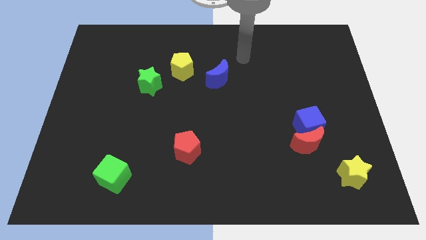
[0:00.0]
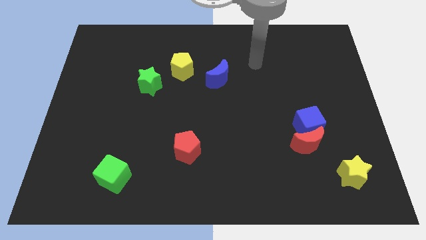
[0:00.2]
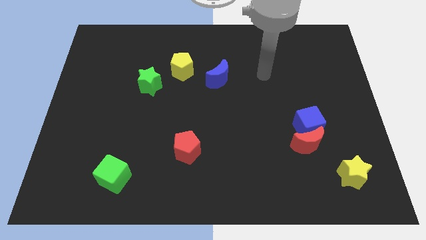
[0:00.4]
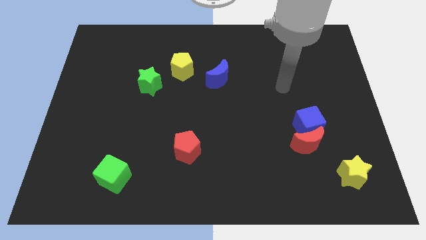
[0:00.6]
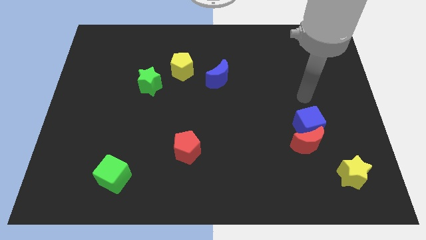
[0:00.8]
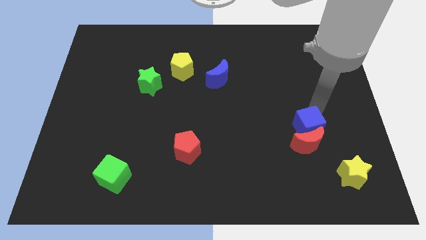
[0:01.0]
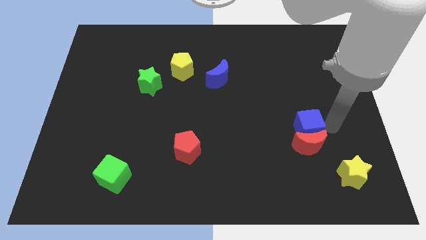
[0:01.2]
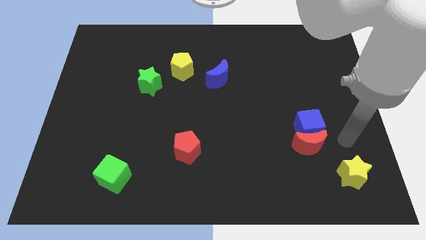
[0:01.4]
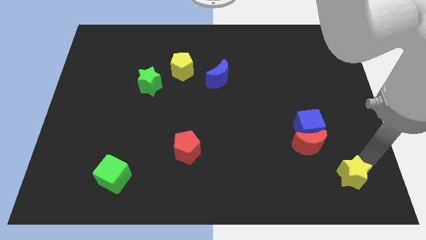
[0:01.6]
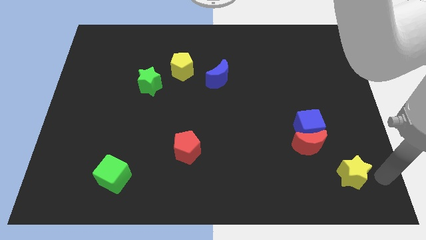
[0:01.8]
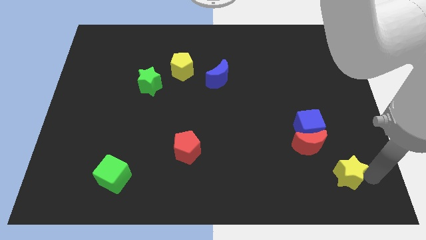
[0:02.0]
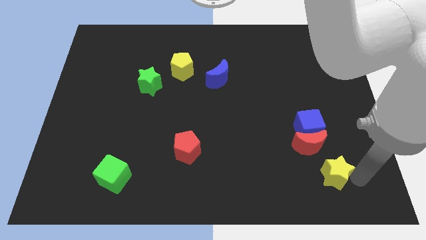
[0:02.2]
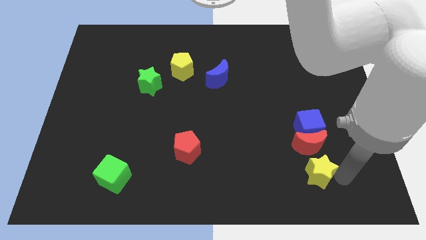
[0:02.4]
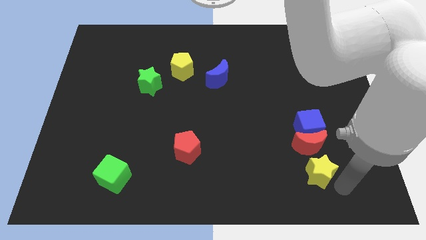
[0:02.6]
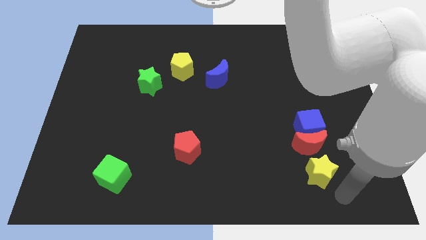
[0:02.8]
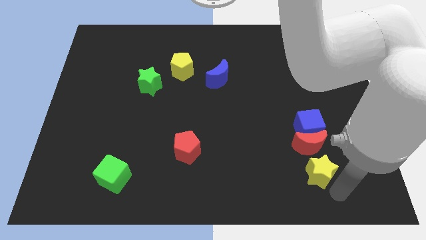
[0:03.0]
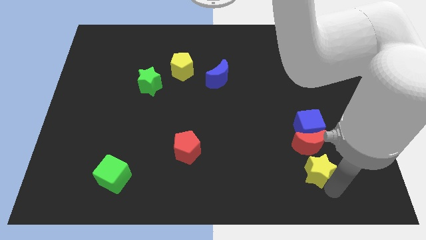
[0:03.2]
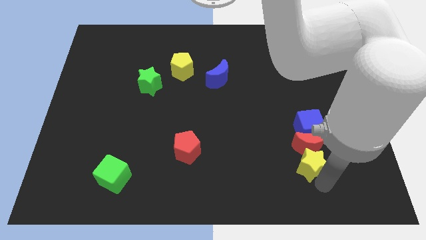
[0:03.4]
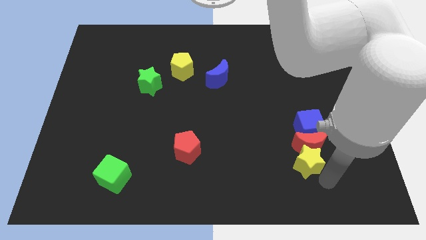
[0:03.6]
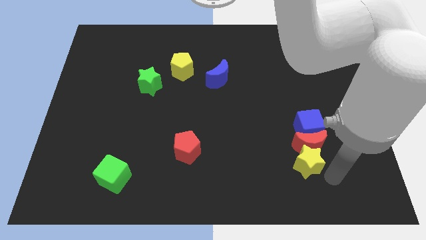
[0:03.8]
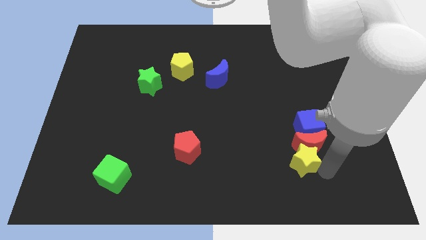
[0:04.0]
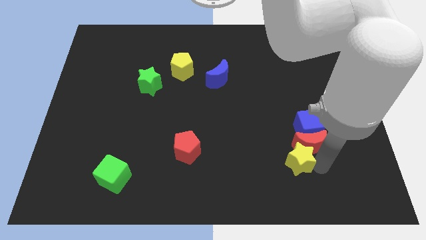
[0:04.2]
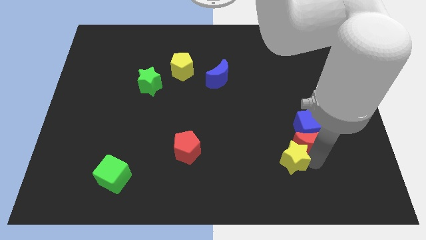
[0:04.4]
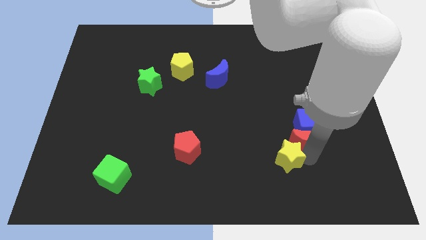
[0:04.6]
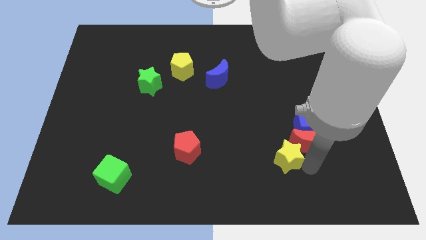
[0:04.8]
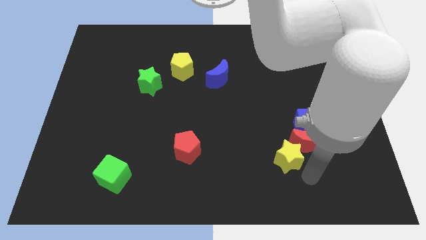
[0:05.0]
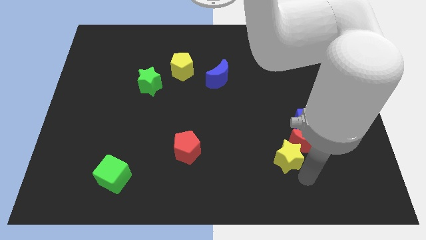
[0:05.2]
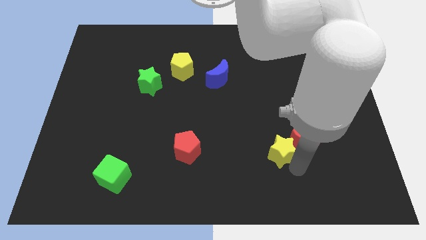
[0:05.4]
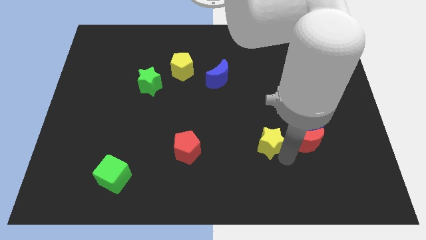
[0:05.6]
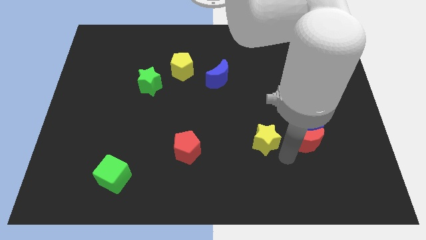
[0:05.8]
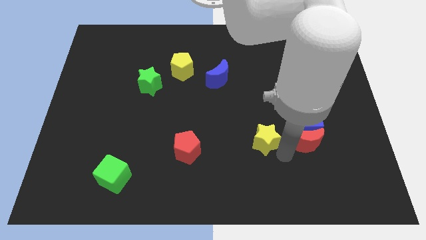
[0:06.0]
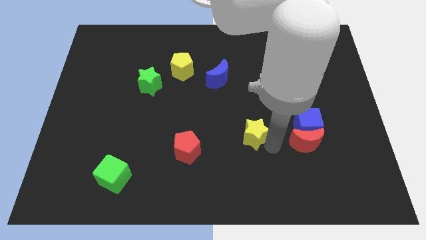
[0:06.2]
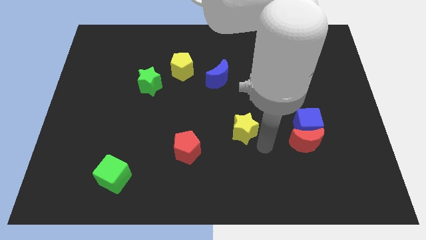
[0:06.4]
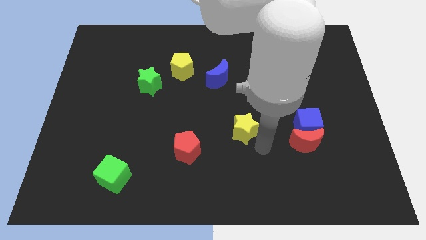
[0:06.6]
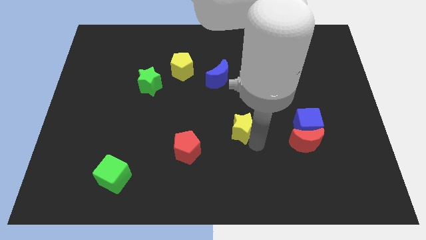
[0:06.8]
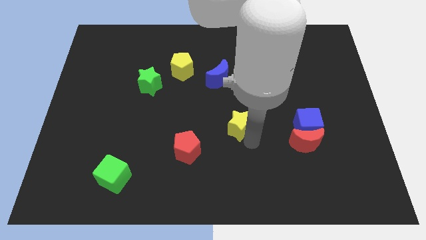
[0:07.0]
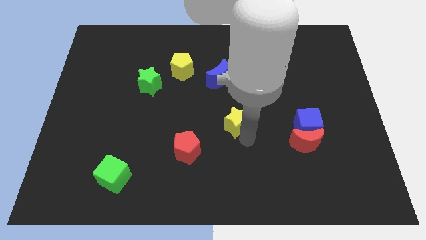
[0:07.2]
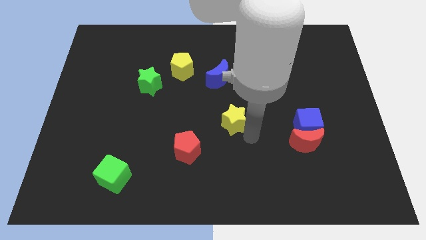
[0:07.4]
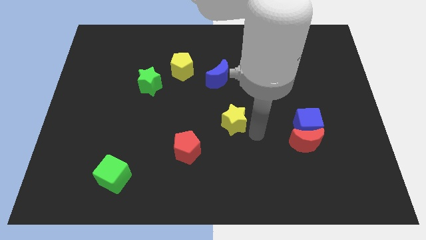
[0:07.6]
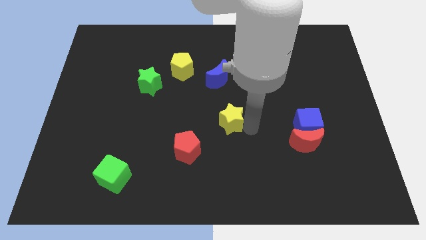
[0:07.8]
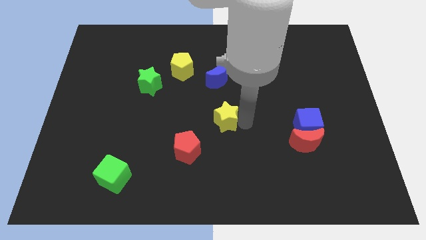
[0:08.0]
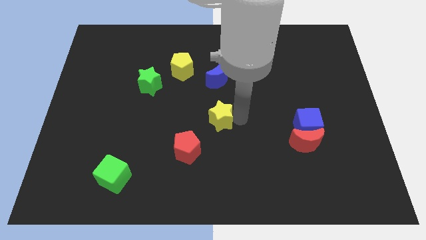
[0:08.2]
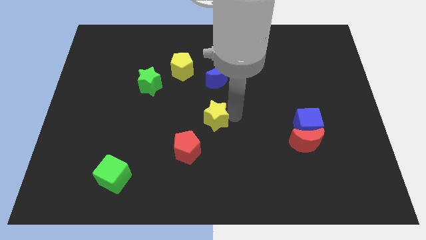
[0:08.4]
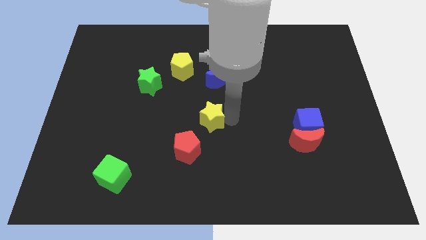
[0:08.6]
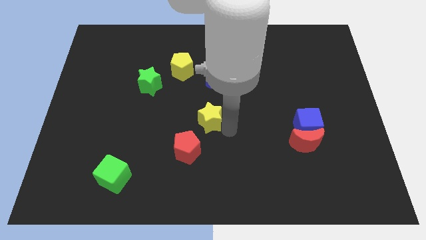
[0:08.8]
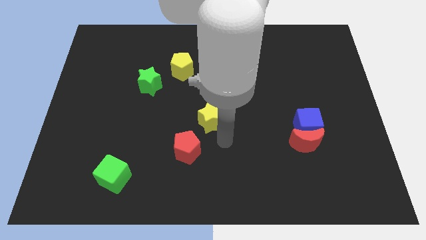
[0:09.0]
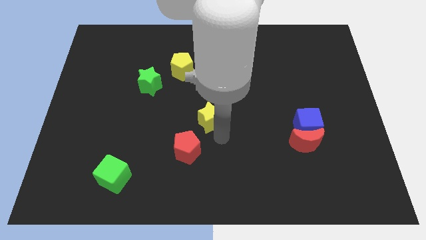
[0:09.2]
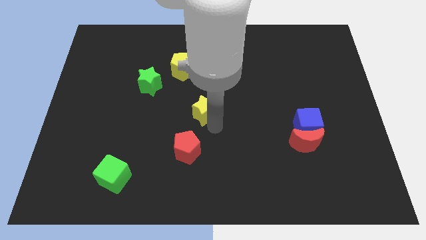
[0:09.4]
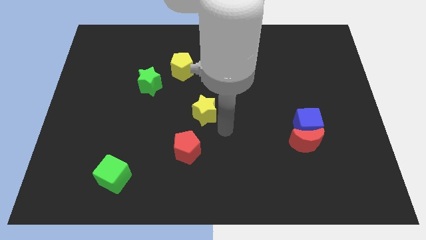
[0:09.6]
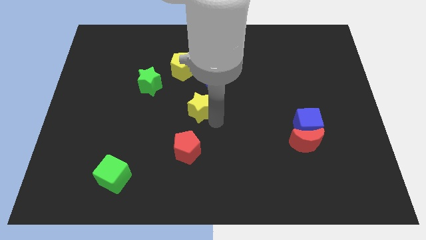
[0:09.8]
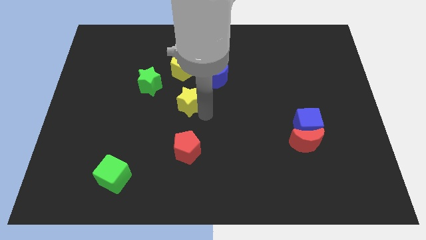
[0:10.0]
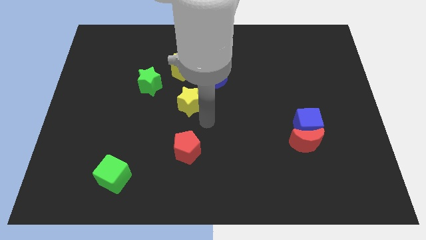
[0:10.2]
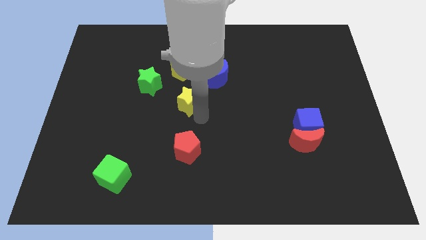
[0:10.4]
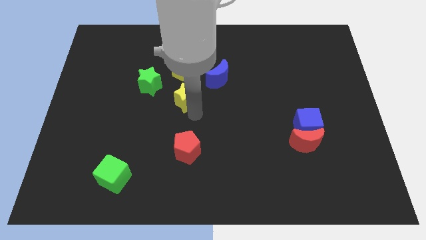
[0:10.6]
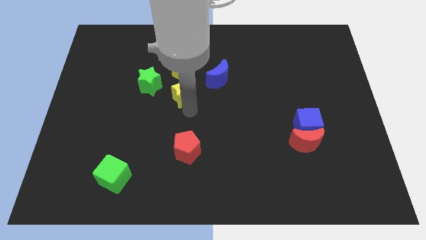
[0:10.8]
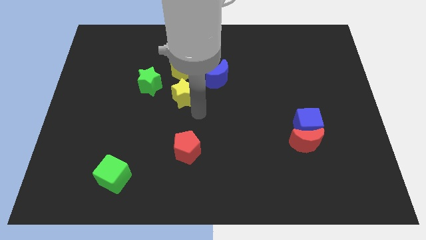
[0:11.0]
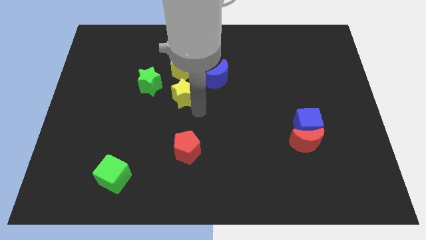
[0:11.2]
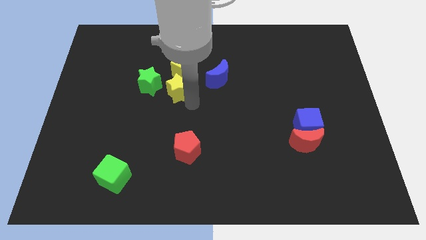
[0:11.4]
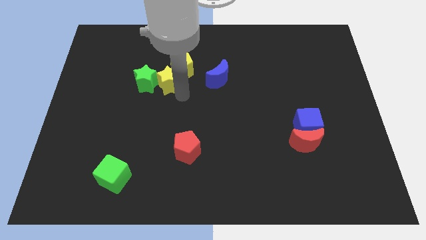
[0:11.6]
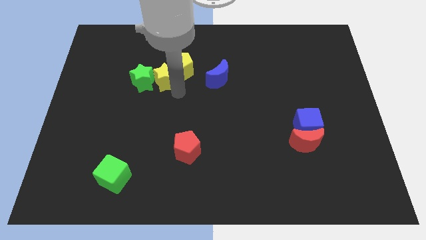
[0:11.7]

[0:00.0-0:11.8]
slide the yellow star to the left side of the yellow pentagon

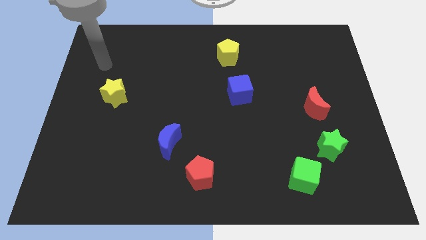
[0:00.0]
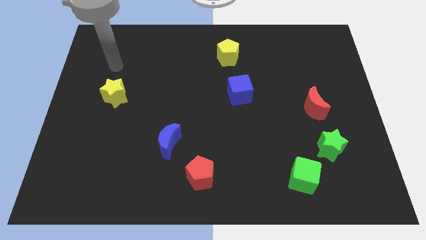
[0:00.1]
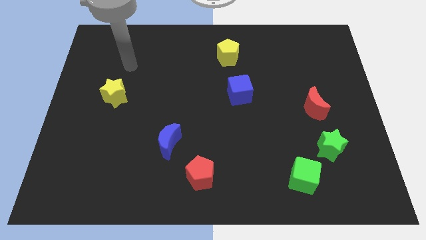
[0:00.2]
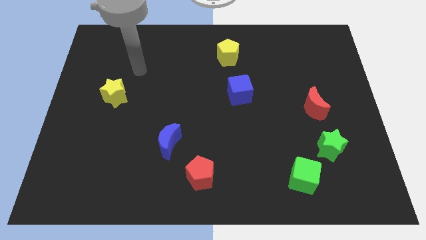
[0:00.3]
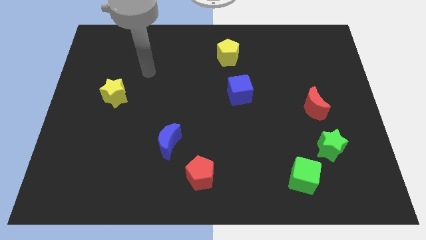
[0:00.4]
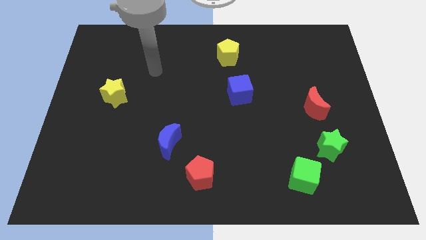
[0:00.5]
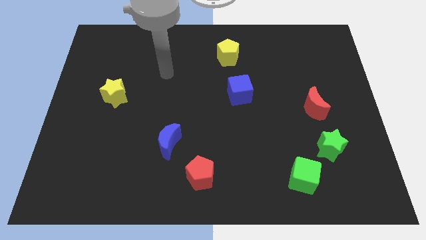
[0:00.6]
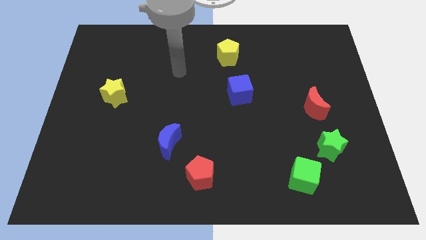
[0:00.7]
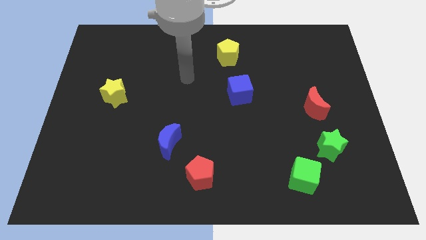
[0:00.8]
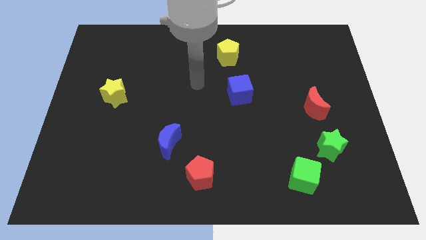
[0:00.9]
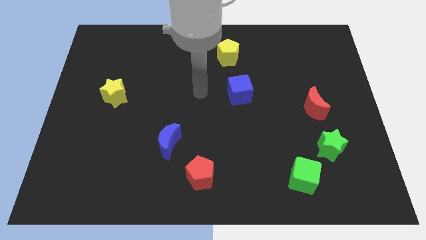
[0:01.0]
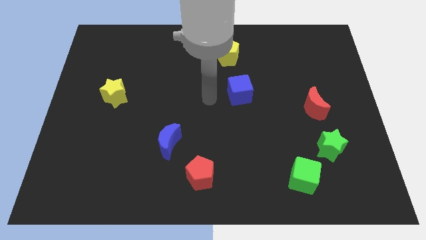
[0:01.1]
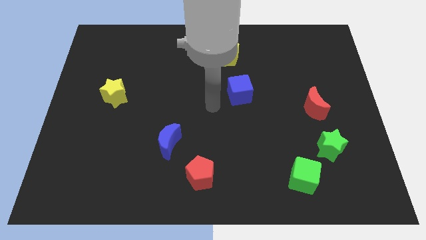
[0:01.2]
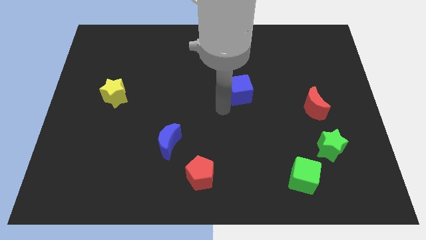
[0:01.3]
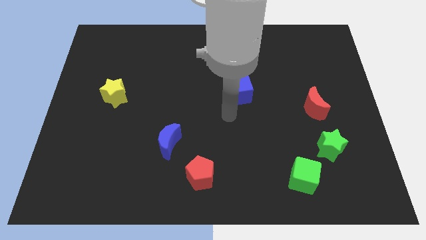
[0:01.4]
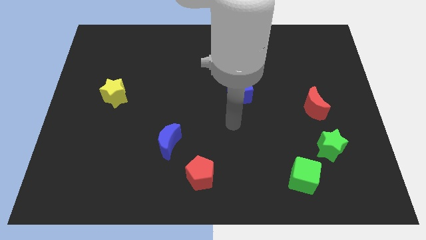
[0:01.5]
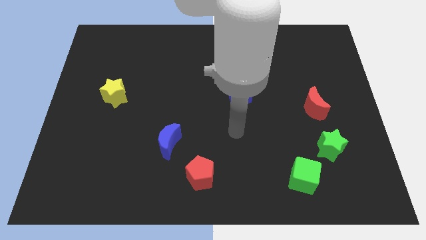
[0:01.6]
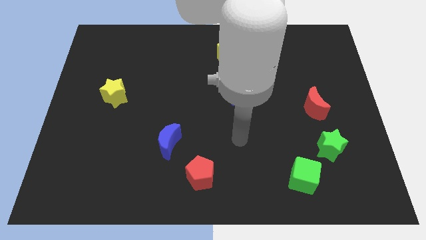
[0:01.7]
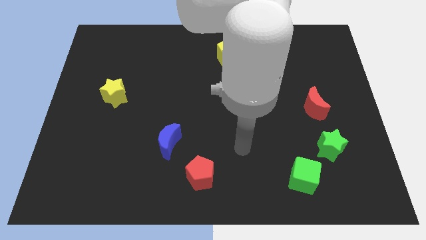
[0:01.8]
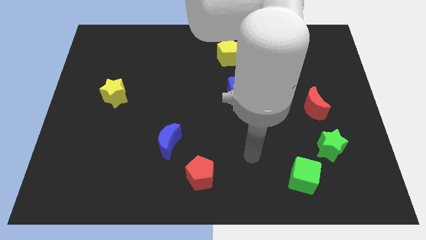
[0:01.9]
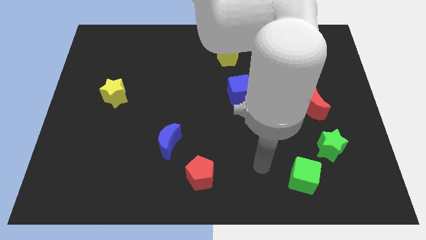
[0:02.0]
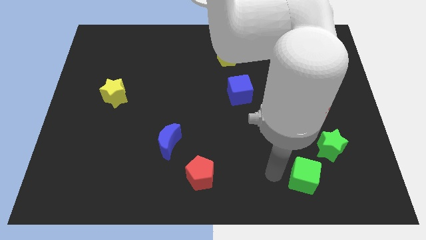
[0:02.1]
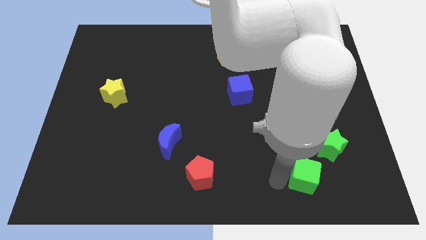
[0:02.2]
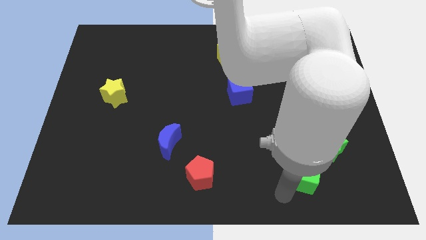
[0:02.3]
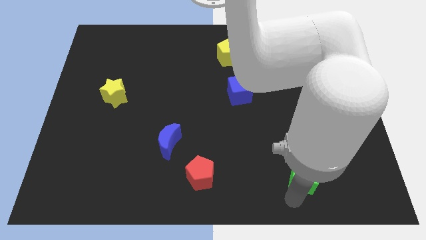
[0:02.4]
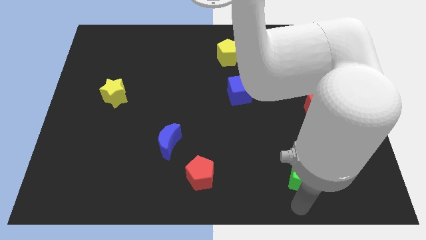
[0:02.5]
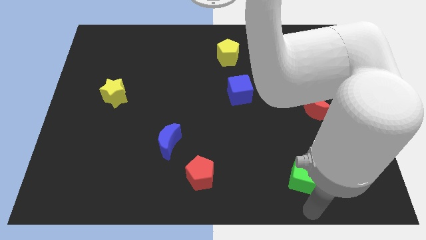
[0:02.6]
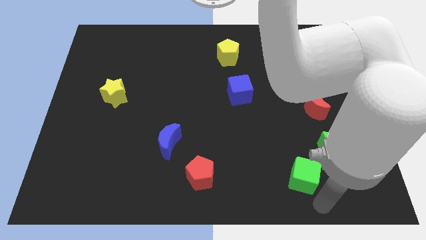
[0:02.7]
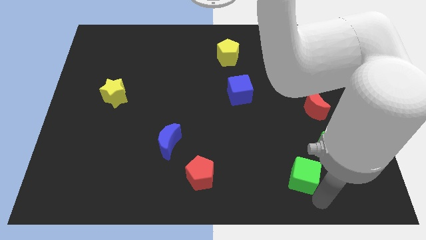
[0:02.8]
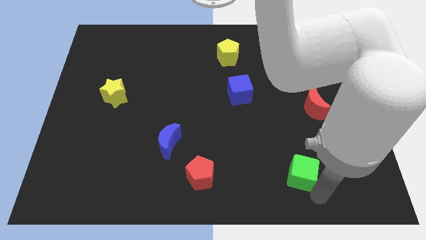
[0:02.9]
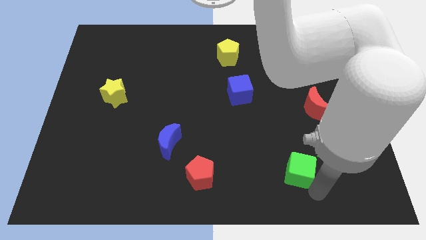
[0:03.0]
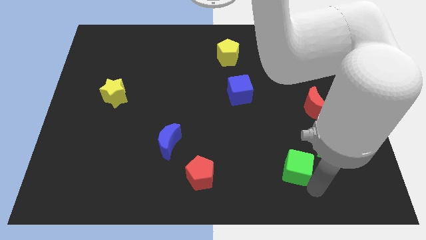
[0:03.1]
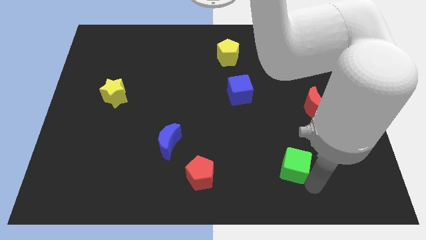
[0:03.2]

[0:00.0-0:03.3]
slide the green cube left of the green star
